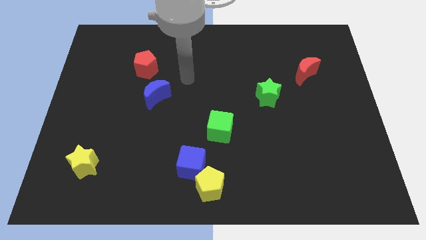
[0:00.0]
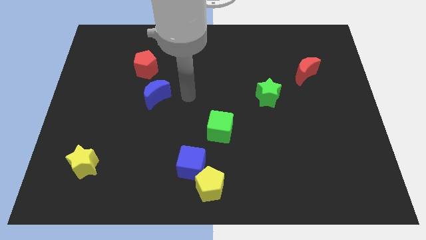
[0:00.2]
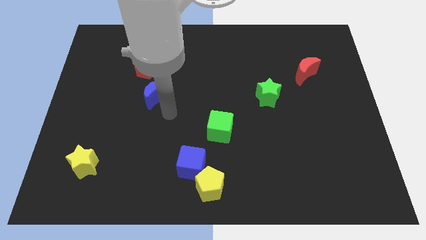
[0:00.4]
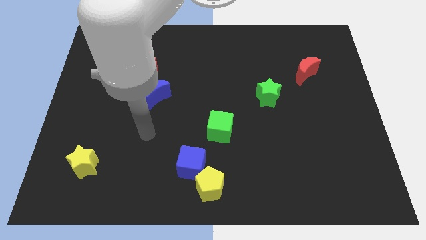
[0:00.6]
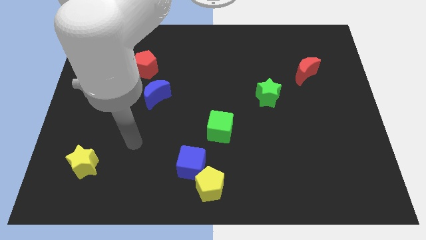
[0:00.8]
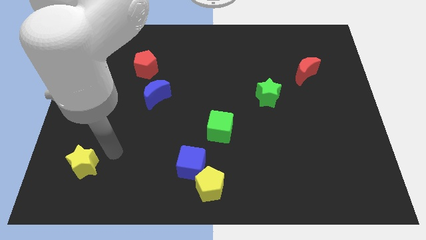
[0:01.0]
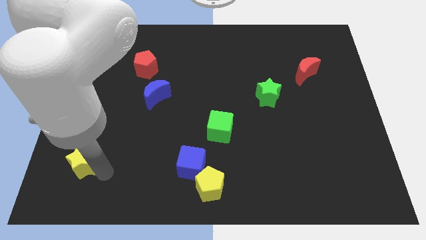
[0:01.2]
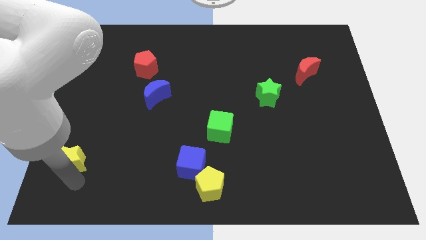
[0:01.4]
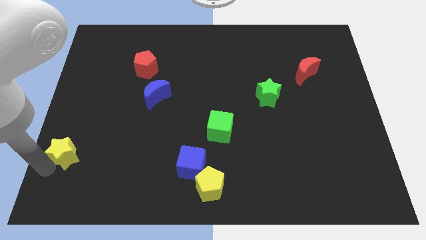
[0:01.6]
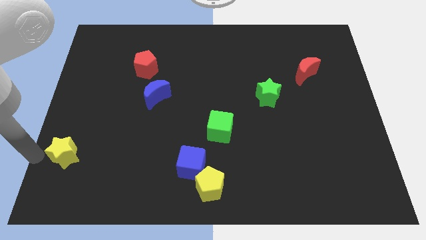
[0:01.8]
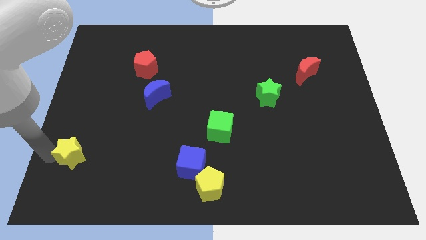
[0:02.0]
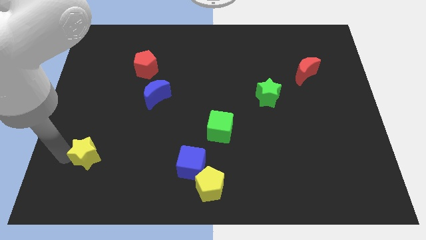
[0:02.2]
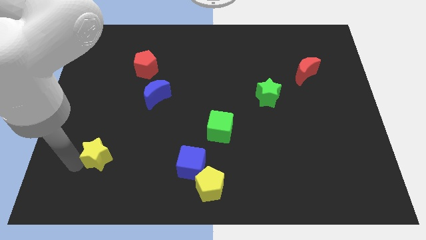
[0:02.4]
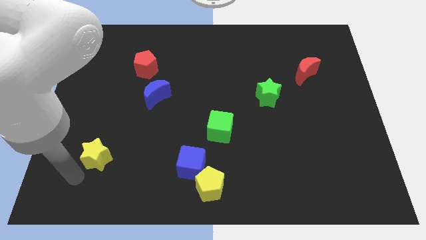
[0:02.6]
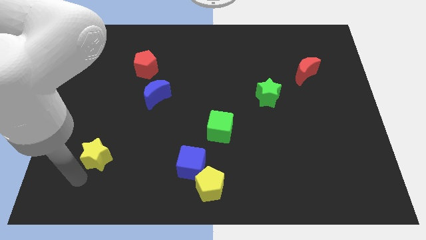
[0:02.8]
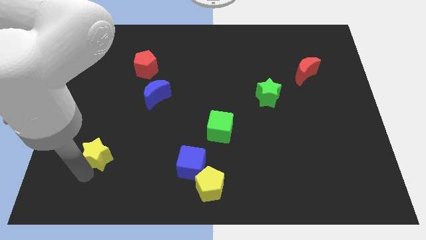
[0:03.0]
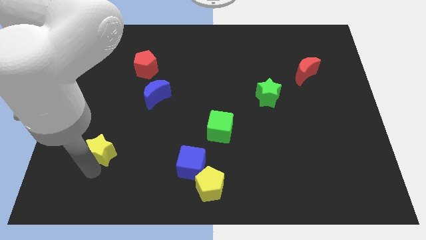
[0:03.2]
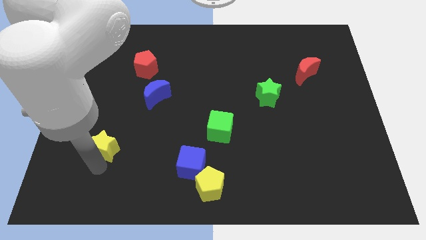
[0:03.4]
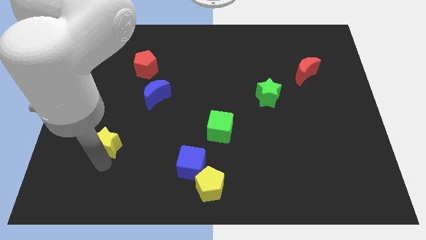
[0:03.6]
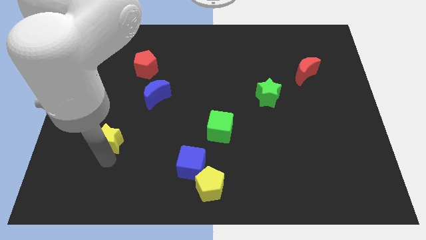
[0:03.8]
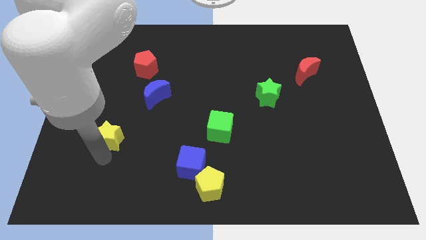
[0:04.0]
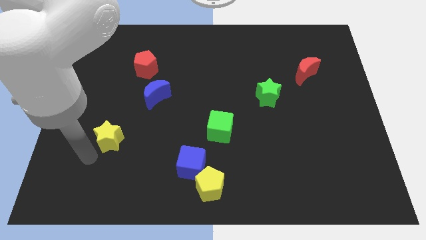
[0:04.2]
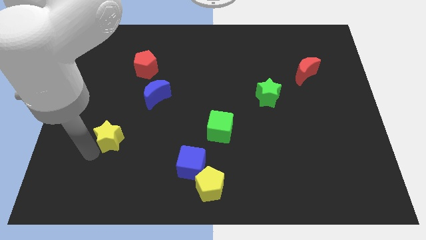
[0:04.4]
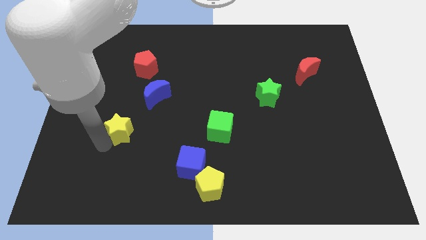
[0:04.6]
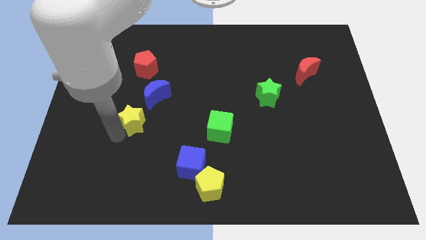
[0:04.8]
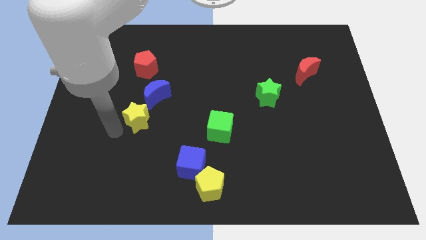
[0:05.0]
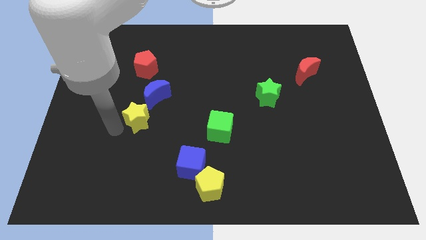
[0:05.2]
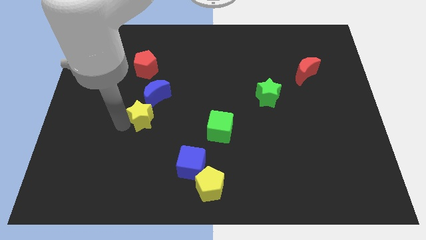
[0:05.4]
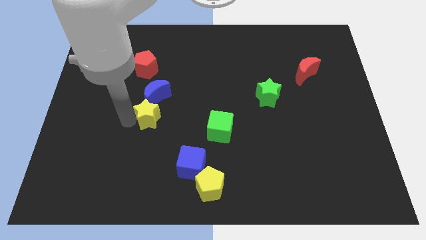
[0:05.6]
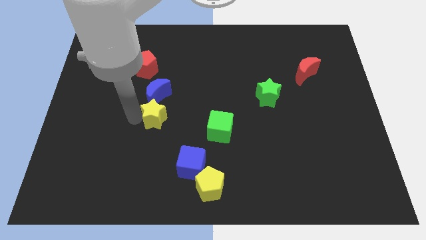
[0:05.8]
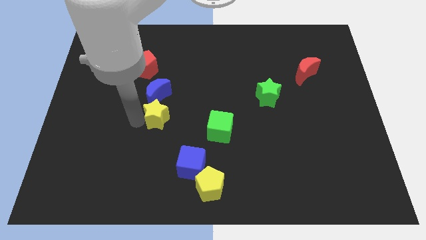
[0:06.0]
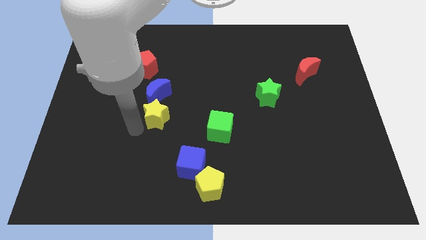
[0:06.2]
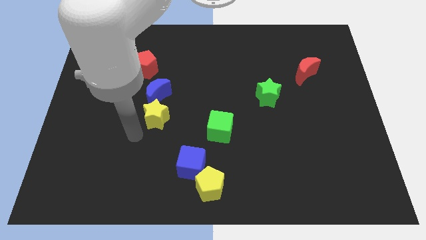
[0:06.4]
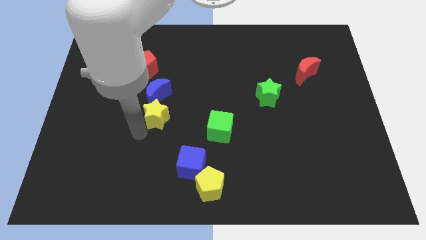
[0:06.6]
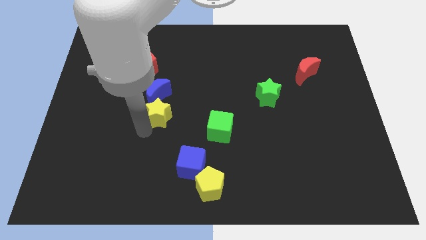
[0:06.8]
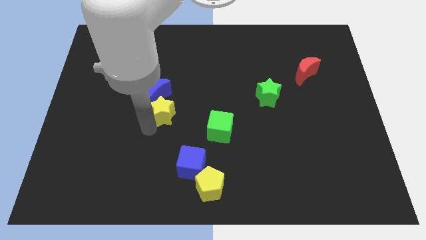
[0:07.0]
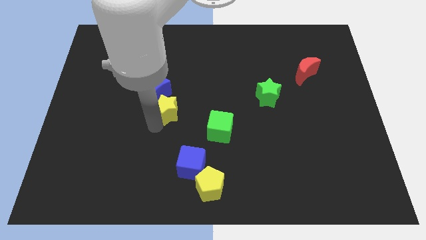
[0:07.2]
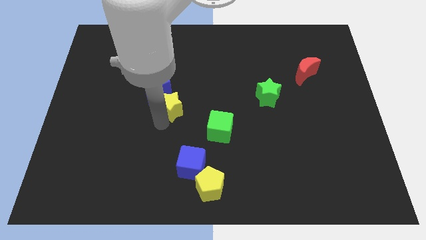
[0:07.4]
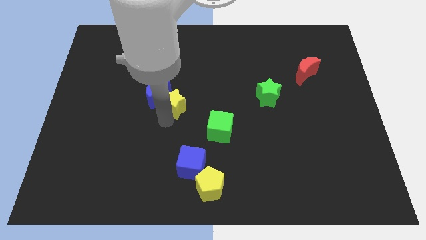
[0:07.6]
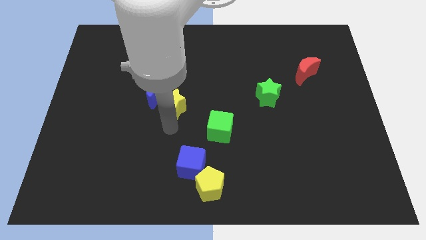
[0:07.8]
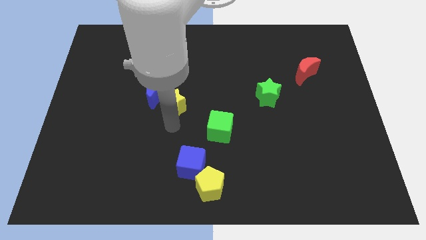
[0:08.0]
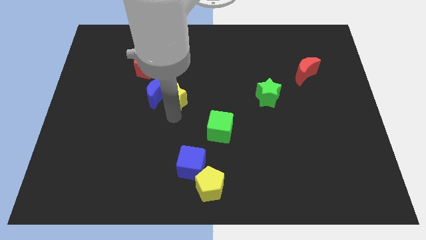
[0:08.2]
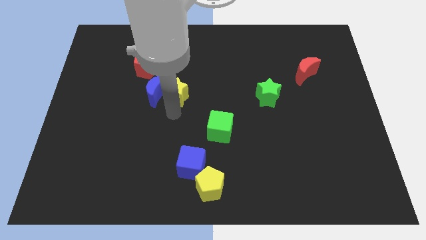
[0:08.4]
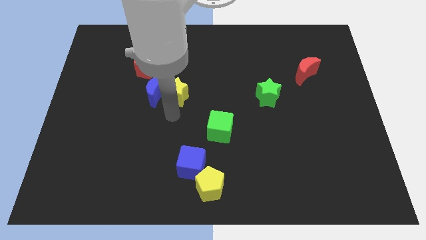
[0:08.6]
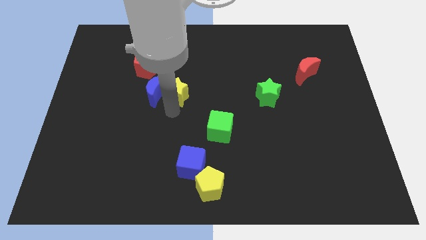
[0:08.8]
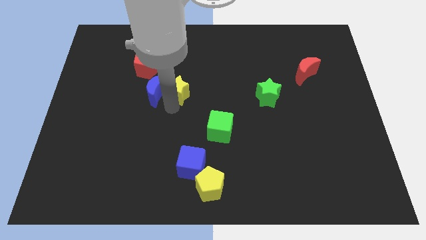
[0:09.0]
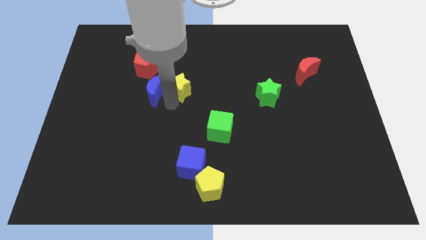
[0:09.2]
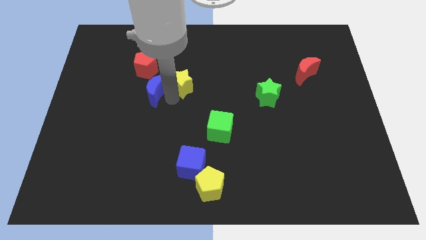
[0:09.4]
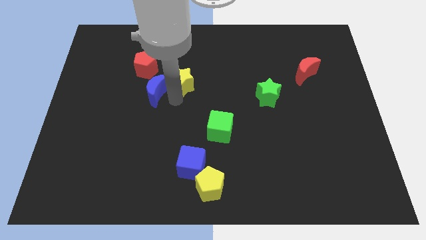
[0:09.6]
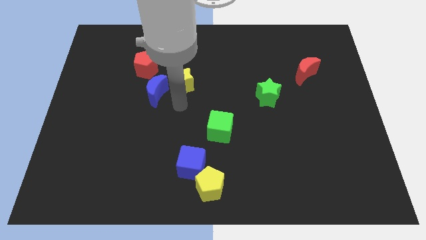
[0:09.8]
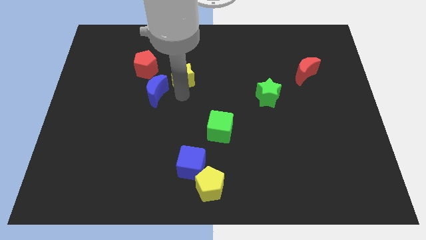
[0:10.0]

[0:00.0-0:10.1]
move the yellow star just right of the red pentagon

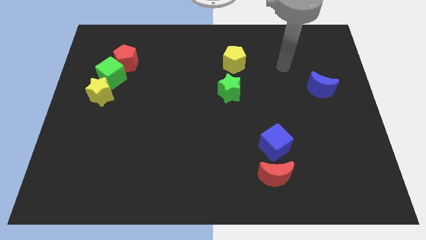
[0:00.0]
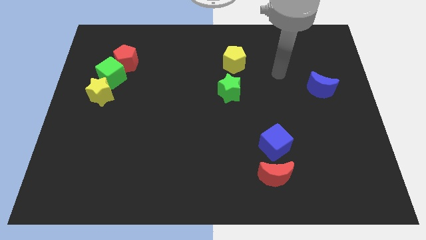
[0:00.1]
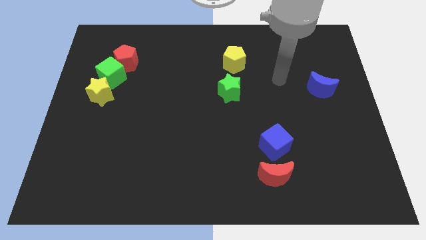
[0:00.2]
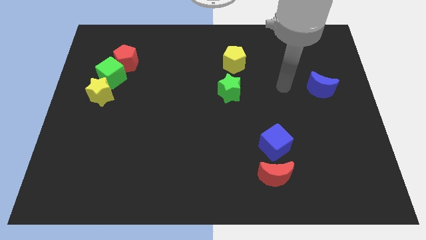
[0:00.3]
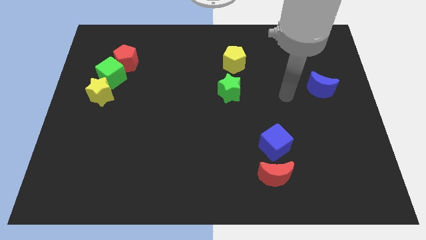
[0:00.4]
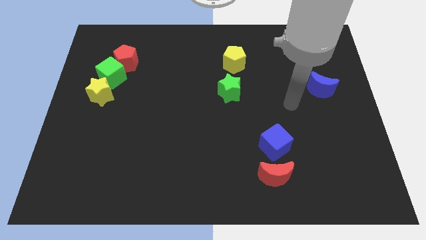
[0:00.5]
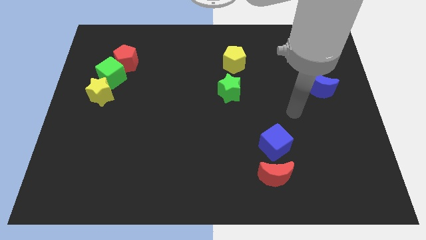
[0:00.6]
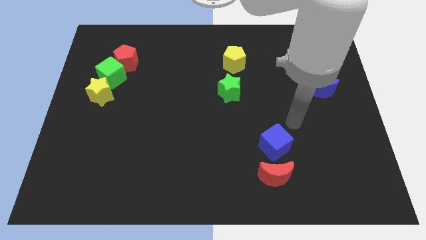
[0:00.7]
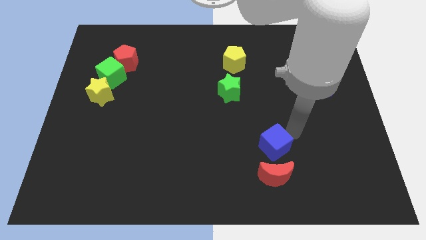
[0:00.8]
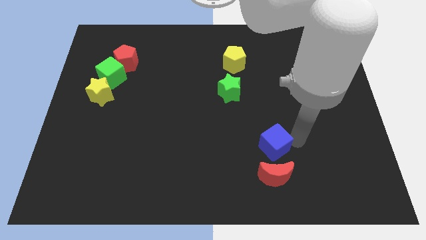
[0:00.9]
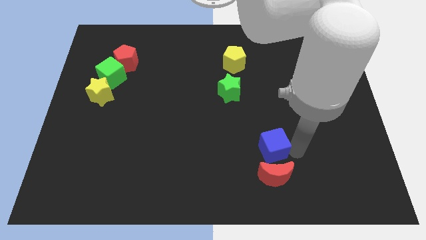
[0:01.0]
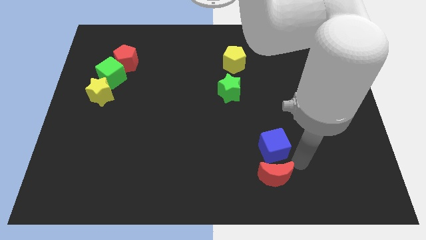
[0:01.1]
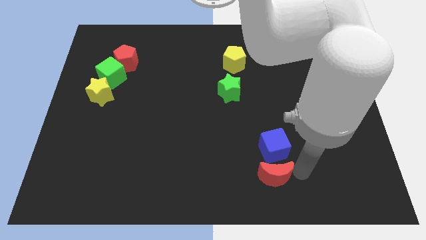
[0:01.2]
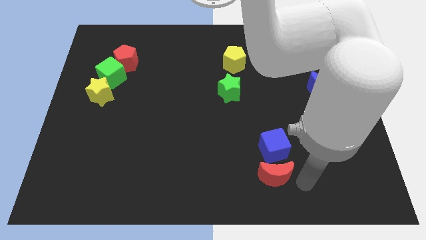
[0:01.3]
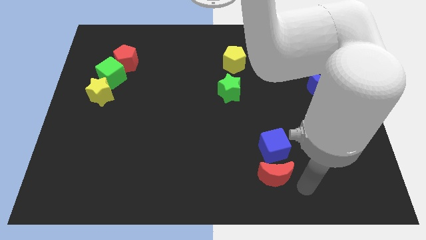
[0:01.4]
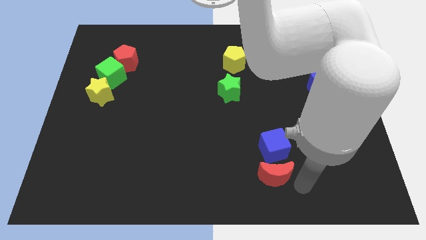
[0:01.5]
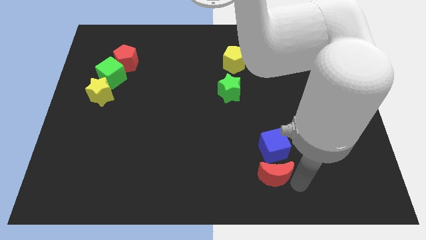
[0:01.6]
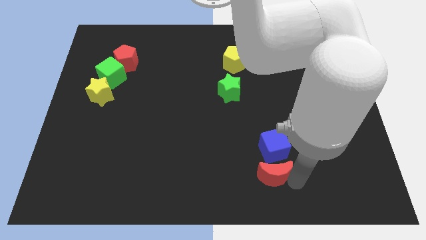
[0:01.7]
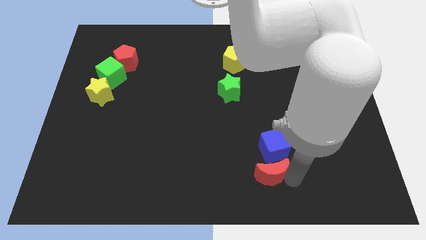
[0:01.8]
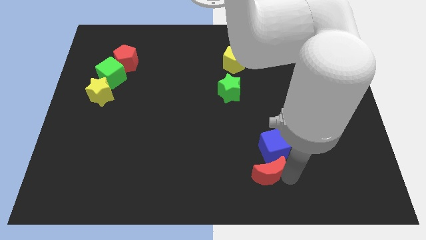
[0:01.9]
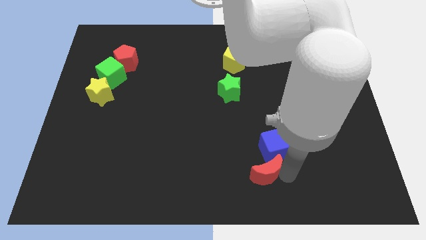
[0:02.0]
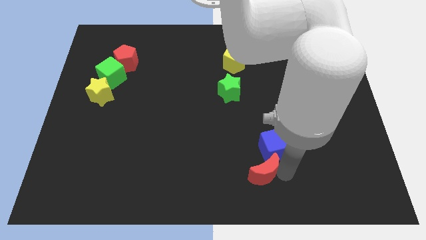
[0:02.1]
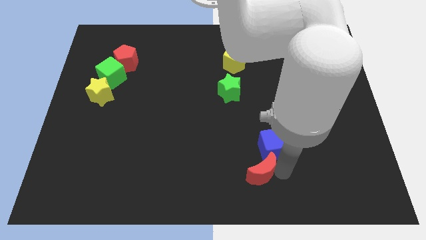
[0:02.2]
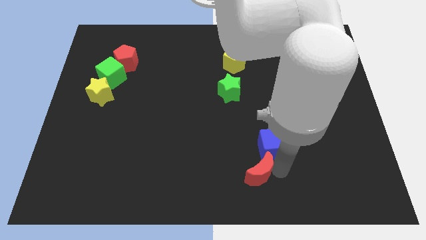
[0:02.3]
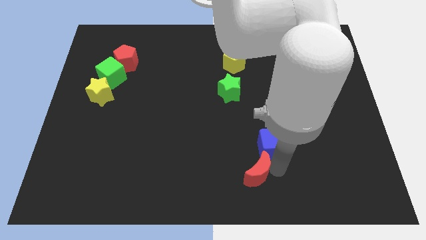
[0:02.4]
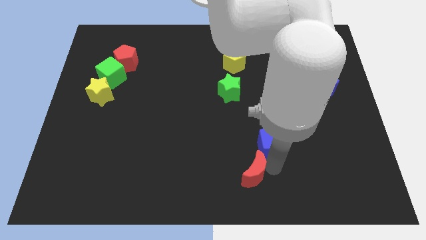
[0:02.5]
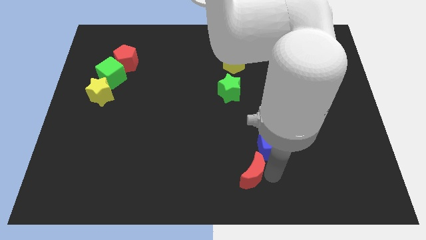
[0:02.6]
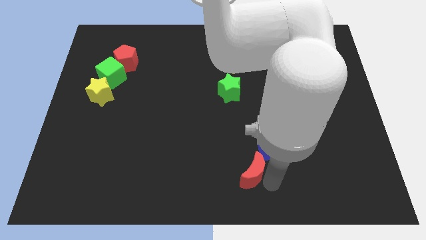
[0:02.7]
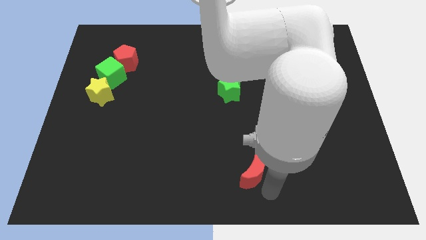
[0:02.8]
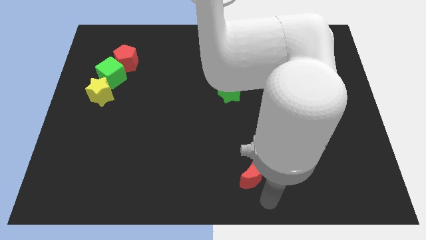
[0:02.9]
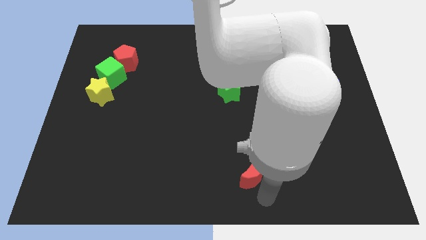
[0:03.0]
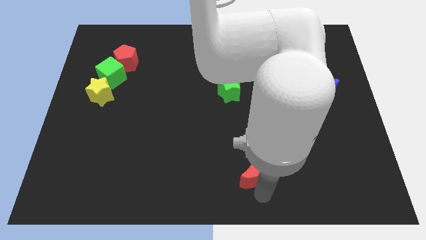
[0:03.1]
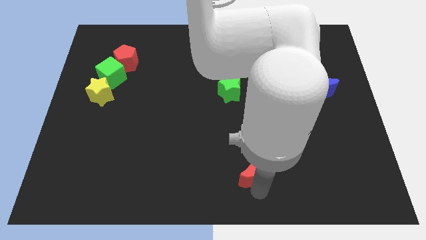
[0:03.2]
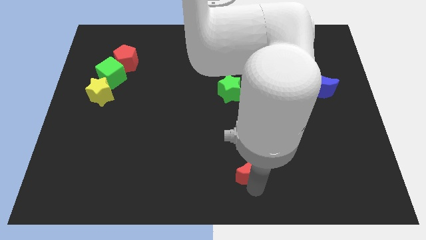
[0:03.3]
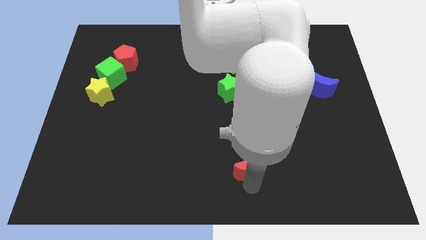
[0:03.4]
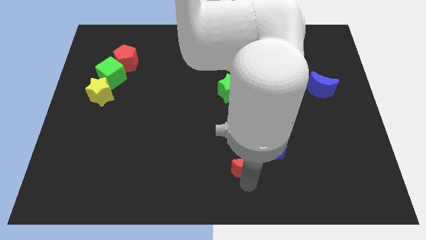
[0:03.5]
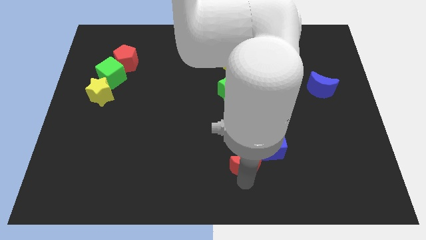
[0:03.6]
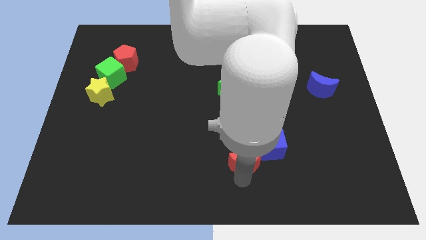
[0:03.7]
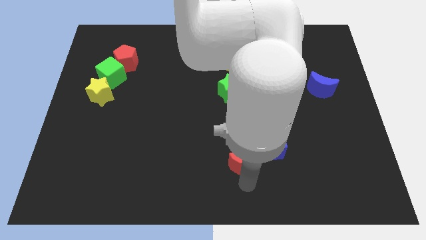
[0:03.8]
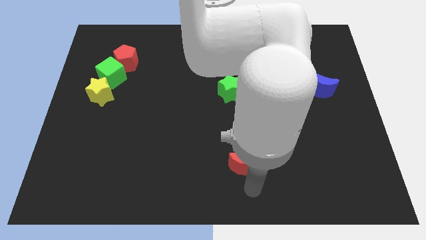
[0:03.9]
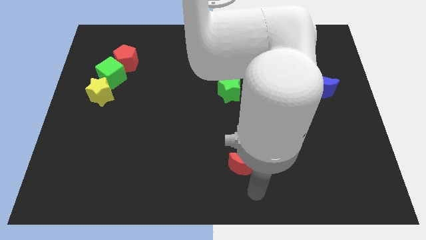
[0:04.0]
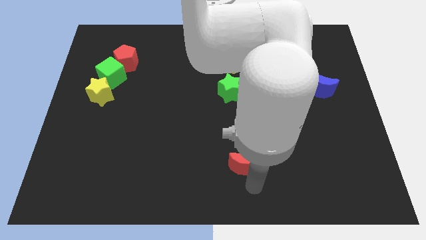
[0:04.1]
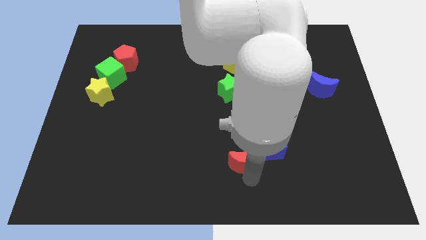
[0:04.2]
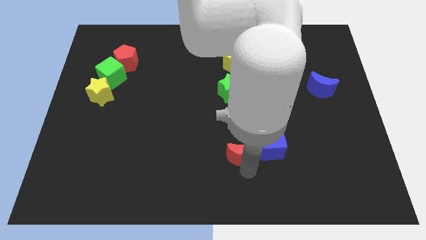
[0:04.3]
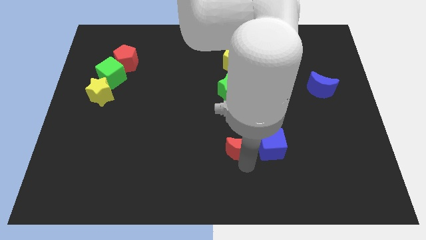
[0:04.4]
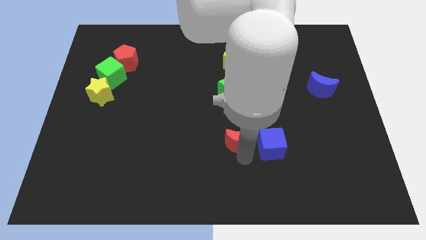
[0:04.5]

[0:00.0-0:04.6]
slide the red moon to the bottom side of the green star
